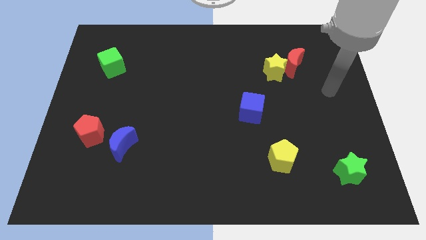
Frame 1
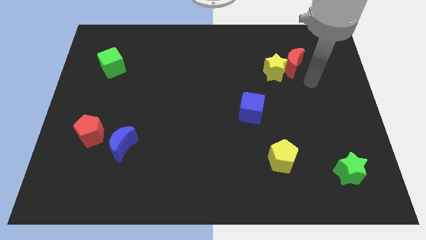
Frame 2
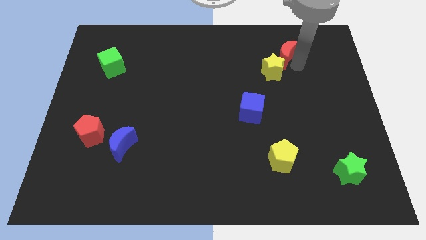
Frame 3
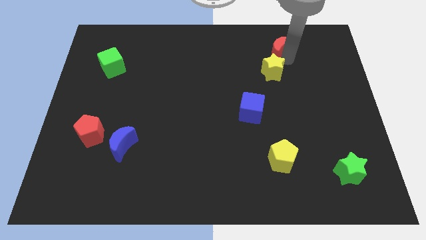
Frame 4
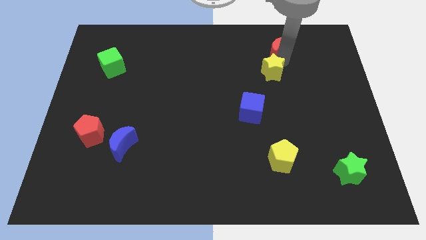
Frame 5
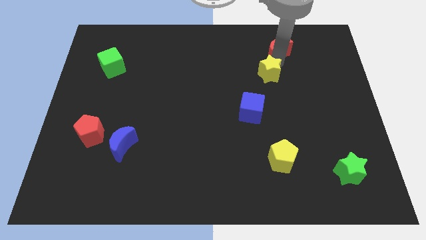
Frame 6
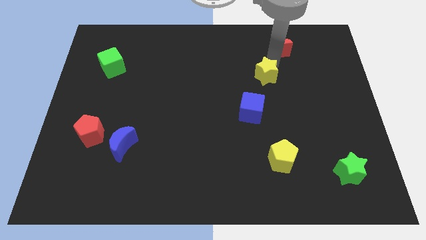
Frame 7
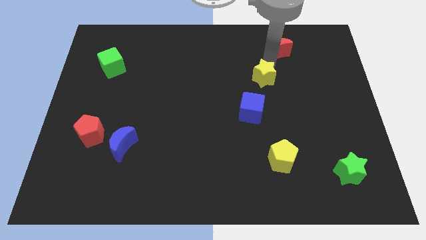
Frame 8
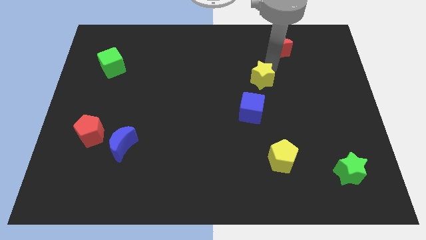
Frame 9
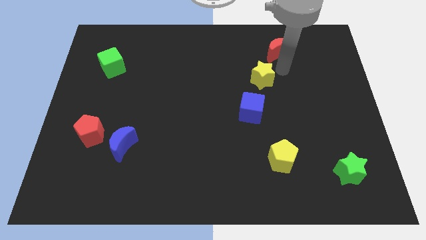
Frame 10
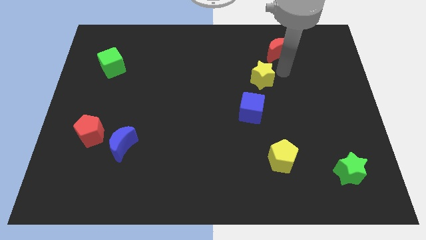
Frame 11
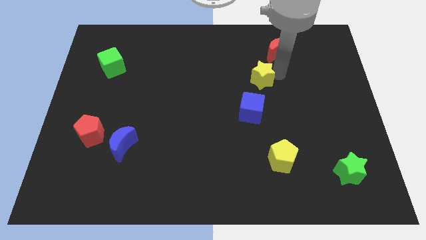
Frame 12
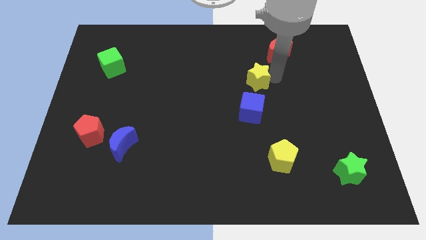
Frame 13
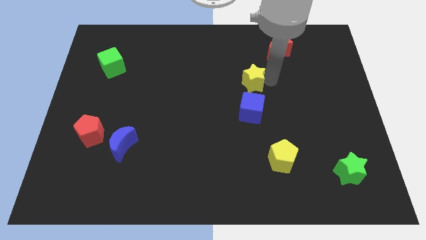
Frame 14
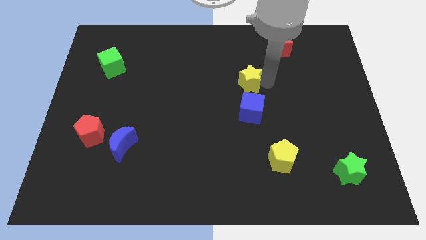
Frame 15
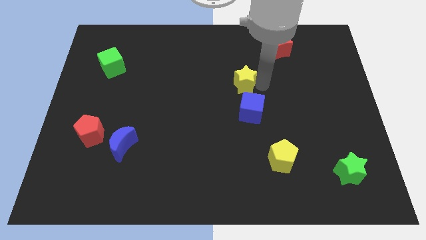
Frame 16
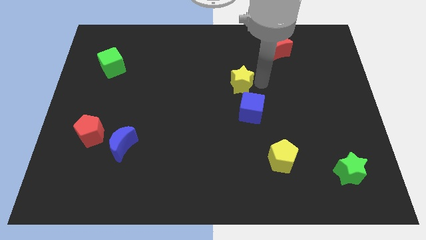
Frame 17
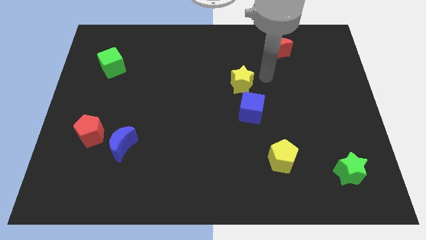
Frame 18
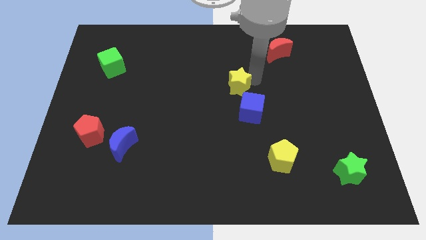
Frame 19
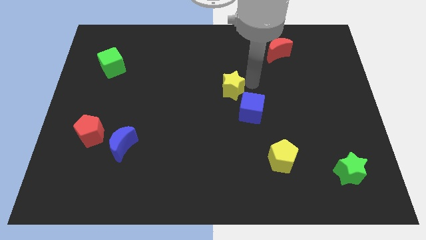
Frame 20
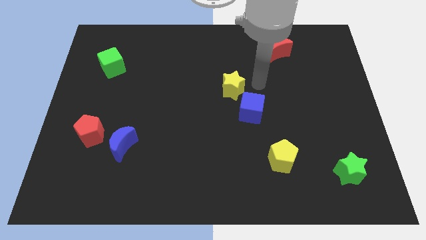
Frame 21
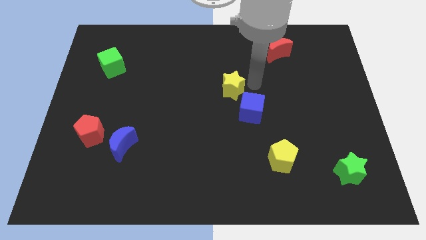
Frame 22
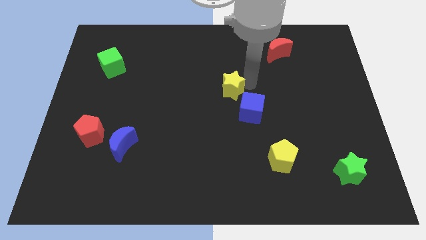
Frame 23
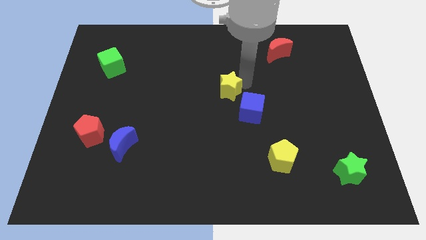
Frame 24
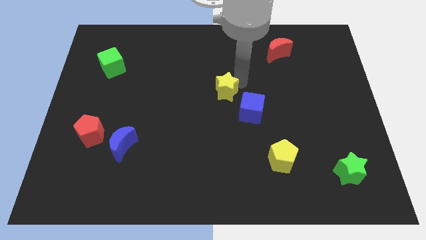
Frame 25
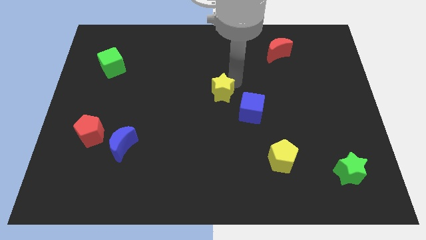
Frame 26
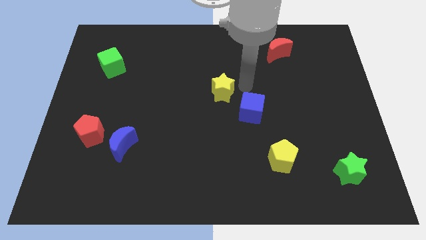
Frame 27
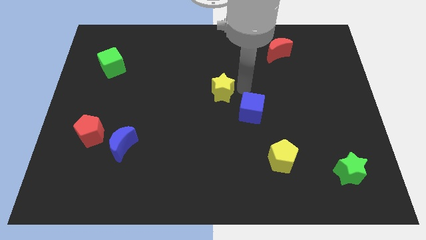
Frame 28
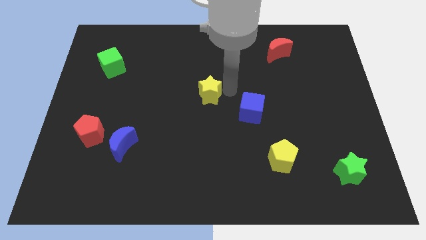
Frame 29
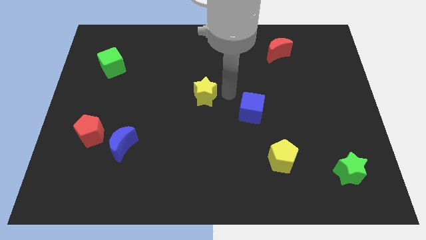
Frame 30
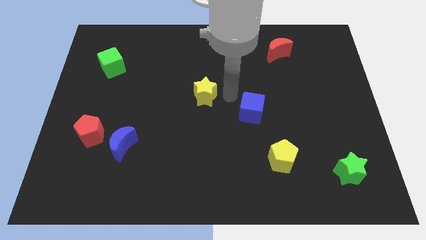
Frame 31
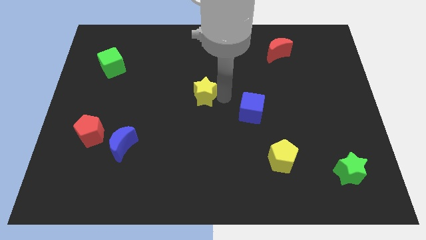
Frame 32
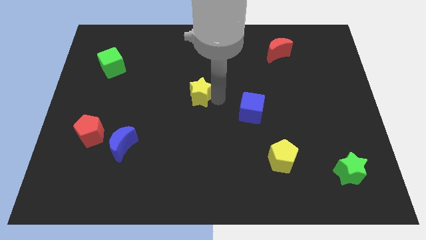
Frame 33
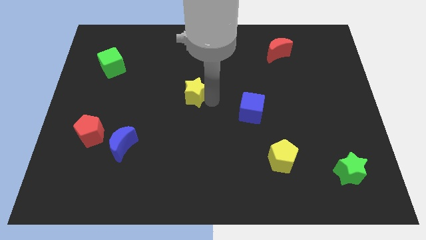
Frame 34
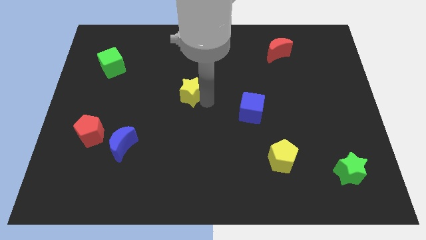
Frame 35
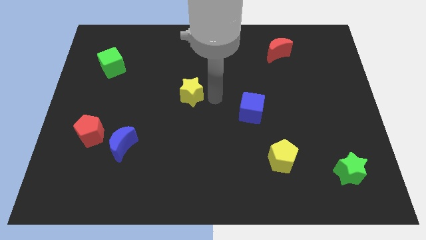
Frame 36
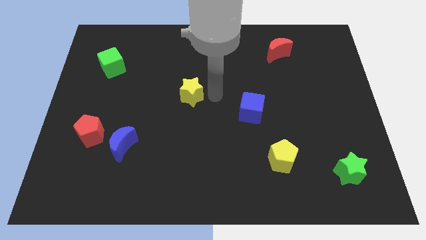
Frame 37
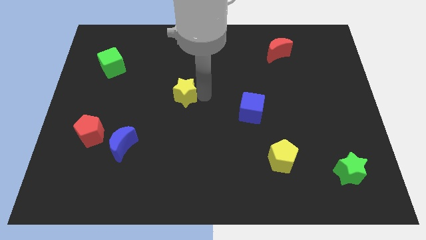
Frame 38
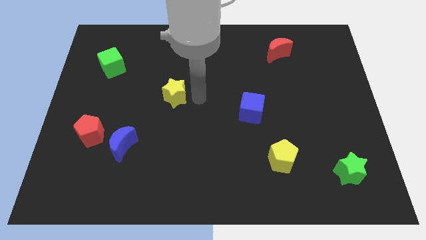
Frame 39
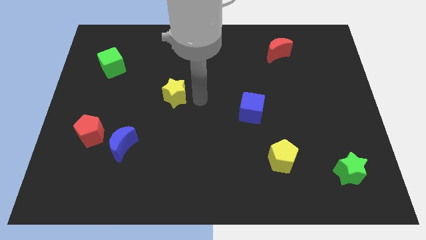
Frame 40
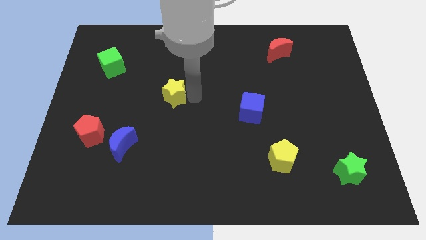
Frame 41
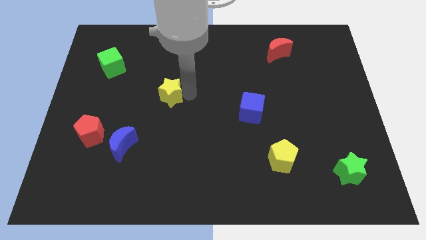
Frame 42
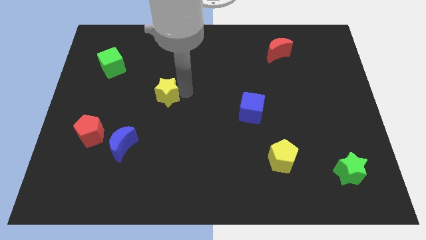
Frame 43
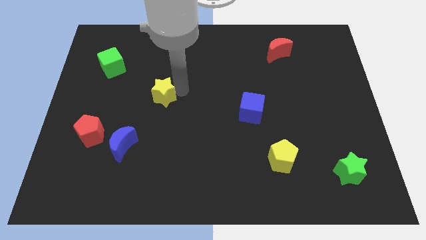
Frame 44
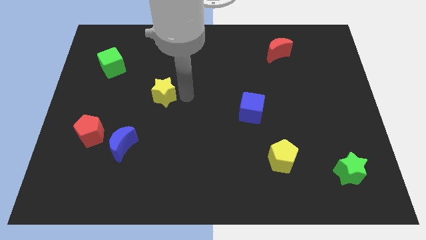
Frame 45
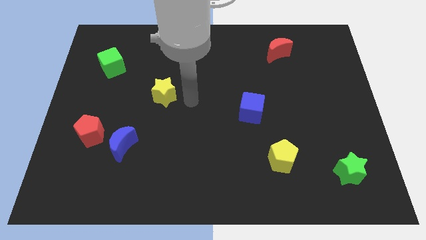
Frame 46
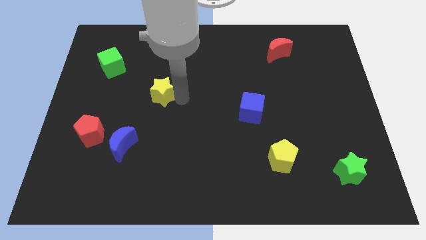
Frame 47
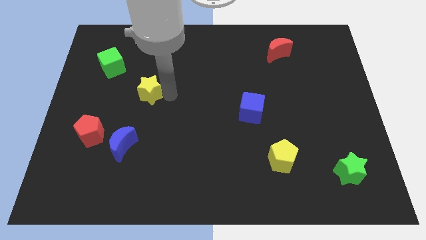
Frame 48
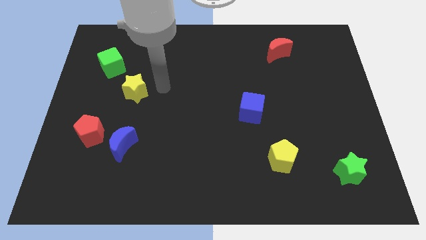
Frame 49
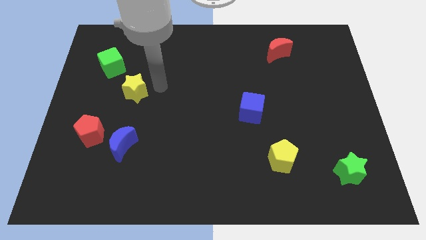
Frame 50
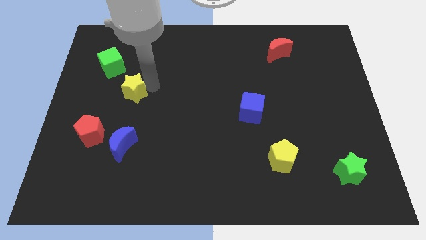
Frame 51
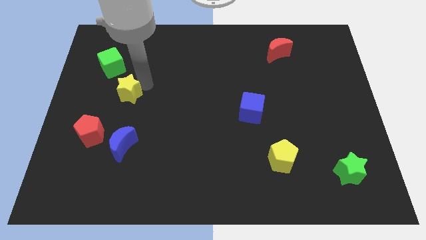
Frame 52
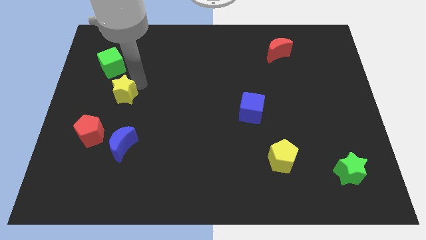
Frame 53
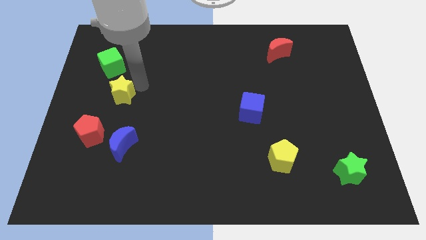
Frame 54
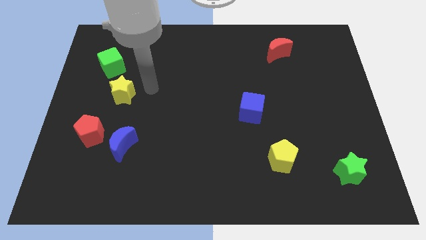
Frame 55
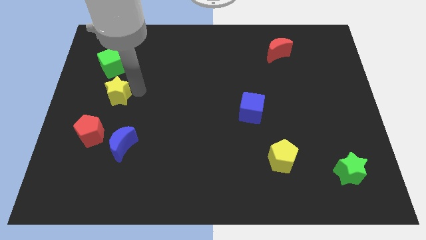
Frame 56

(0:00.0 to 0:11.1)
slide the yellow star to the top of the red pentagon

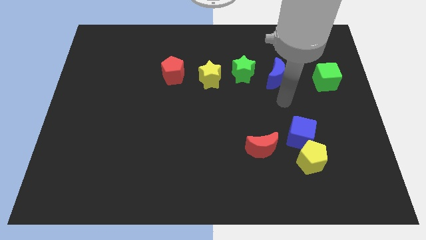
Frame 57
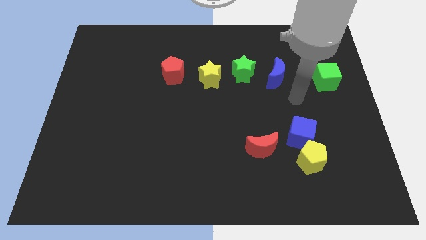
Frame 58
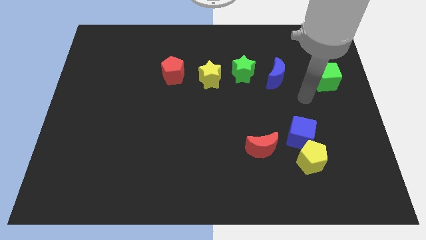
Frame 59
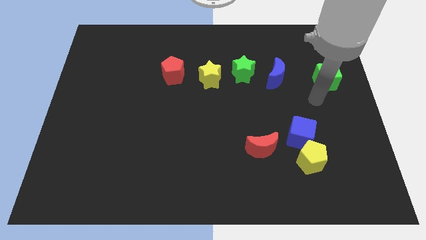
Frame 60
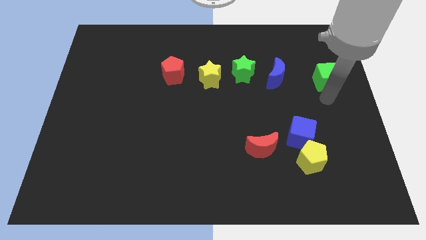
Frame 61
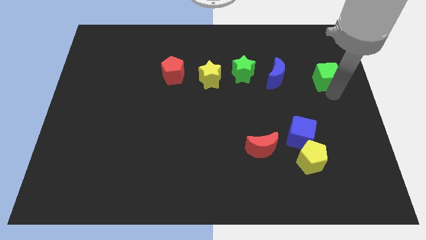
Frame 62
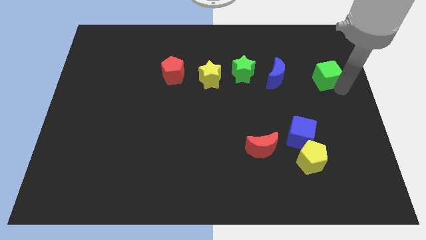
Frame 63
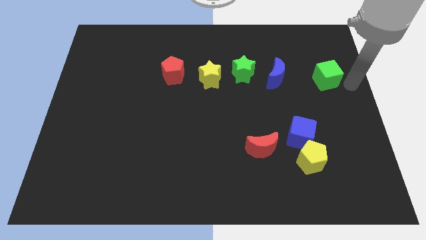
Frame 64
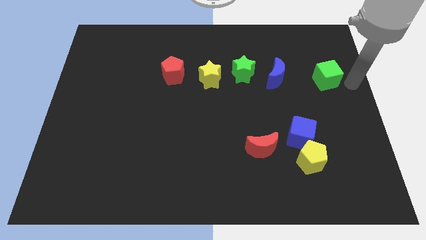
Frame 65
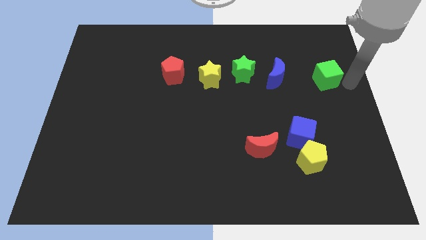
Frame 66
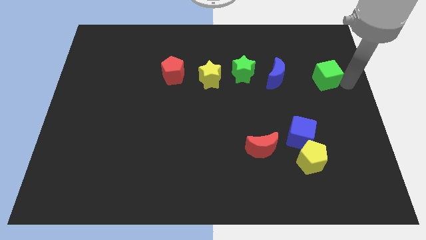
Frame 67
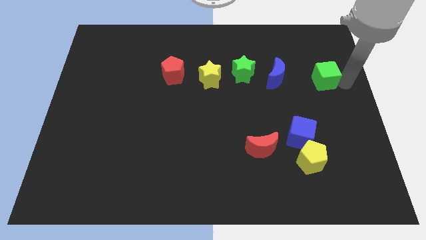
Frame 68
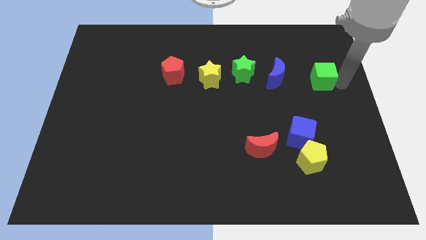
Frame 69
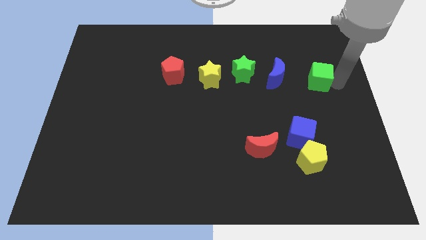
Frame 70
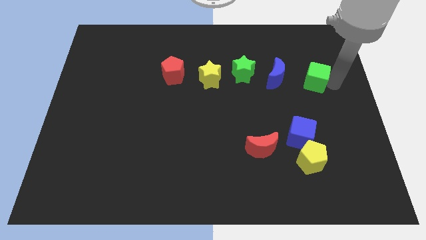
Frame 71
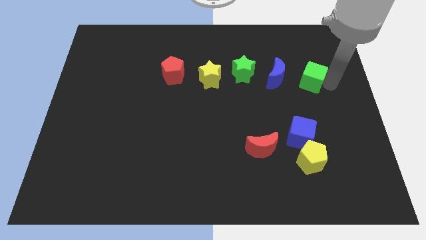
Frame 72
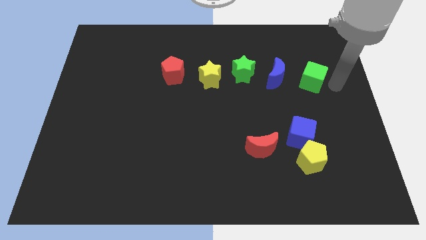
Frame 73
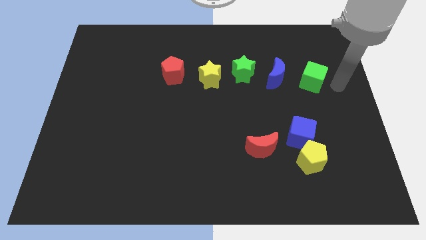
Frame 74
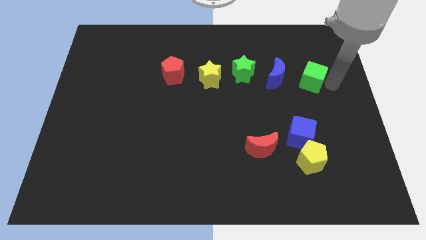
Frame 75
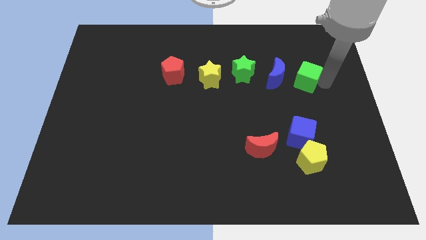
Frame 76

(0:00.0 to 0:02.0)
put the green cube to the right of the green star
